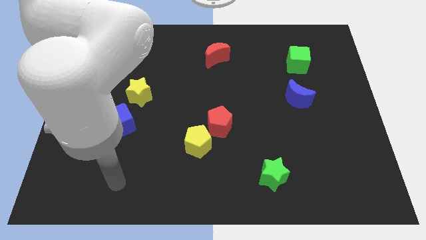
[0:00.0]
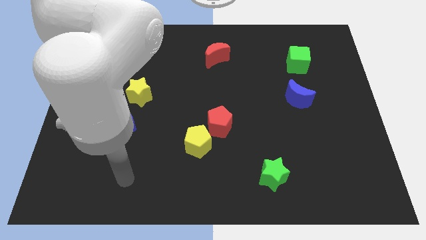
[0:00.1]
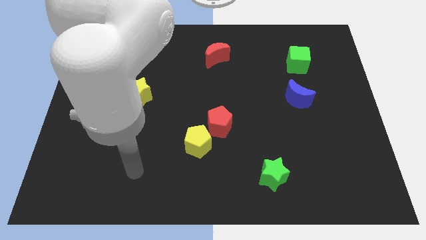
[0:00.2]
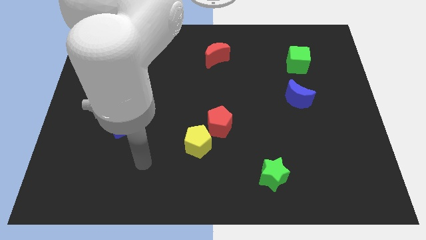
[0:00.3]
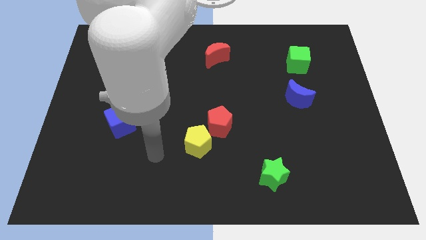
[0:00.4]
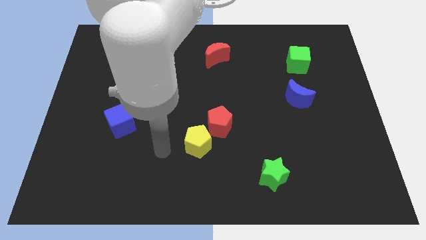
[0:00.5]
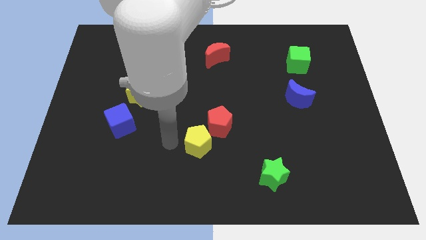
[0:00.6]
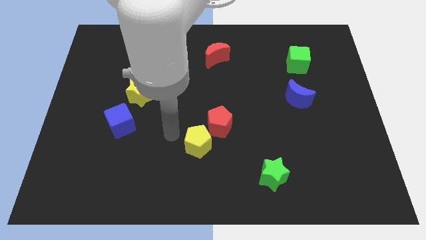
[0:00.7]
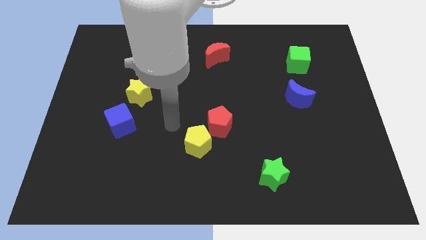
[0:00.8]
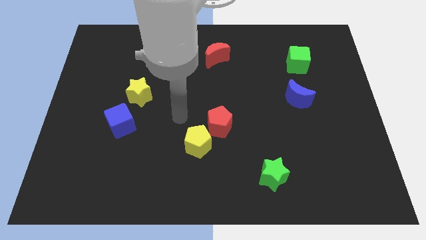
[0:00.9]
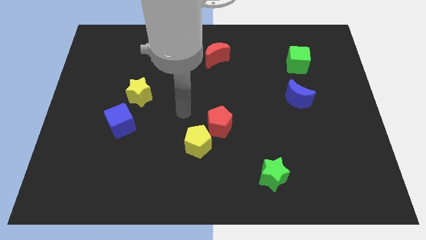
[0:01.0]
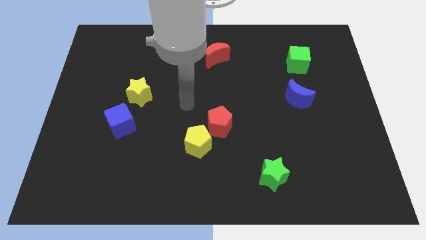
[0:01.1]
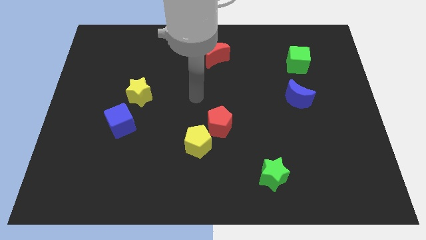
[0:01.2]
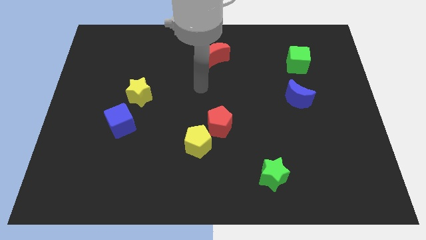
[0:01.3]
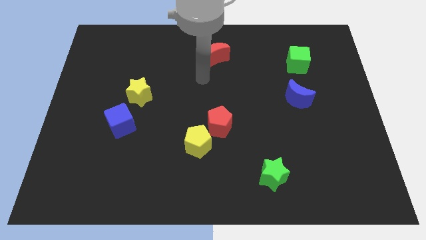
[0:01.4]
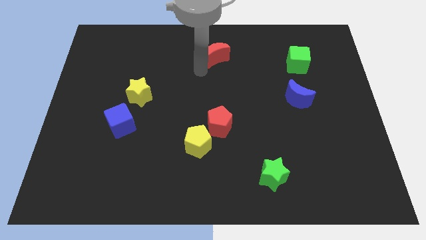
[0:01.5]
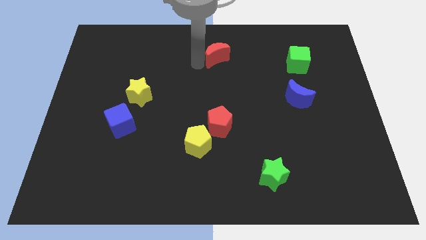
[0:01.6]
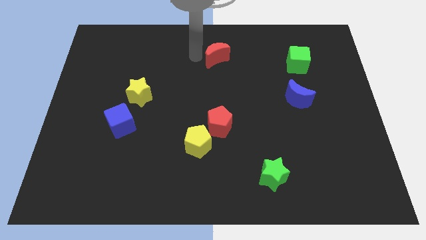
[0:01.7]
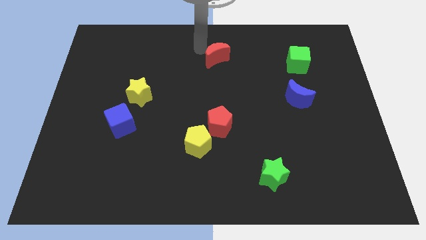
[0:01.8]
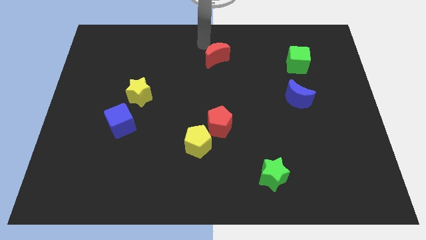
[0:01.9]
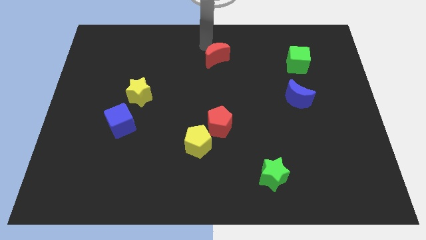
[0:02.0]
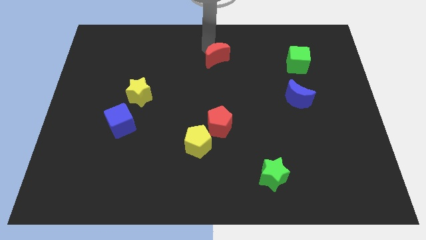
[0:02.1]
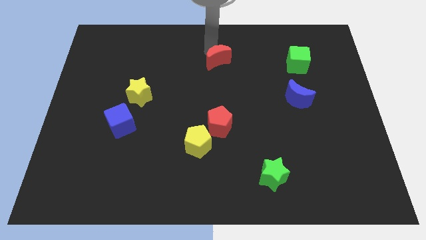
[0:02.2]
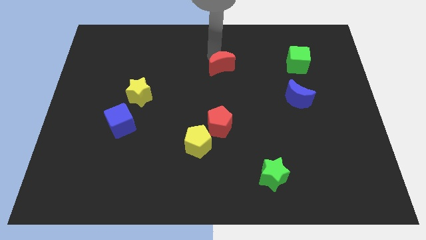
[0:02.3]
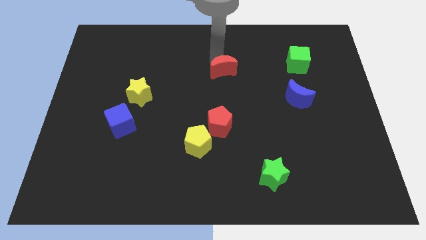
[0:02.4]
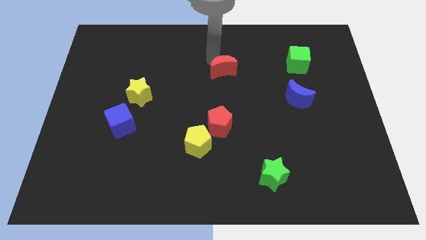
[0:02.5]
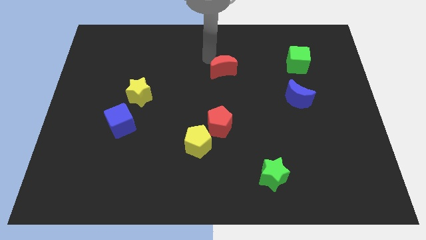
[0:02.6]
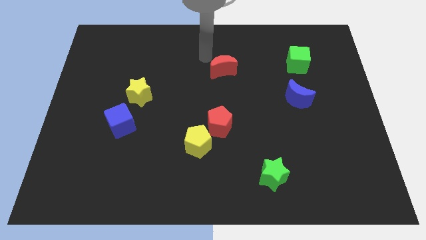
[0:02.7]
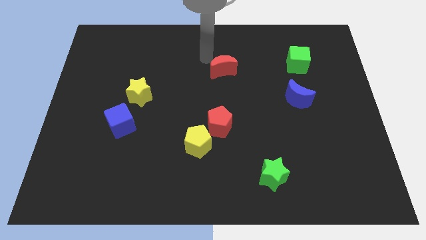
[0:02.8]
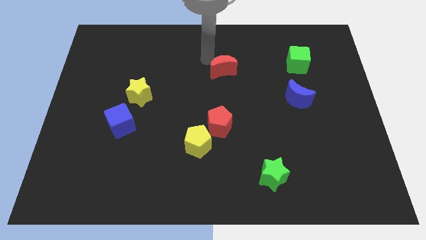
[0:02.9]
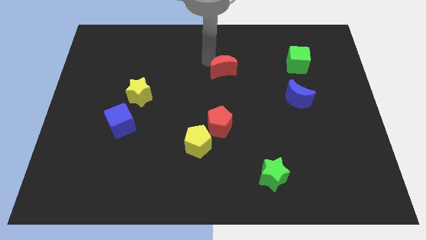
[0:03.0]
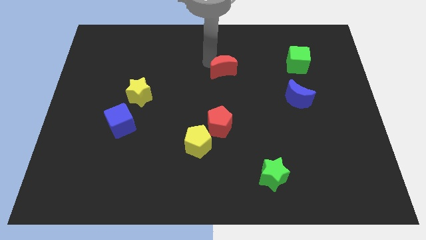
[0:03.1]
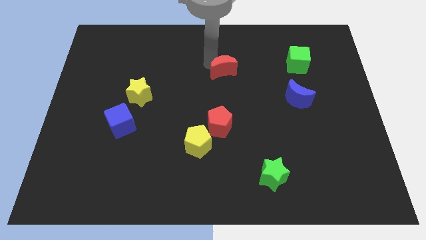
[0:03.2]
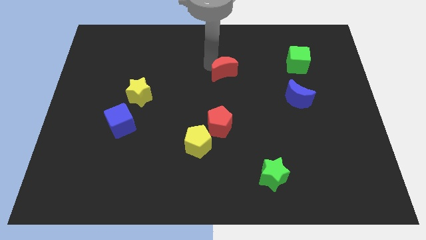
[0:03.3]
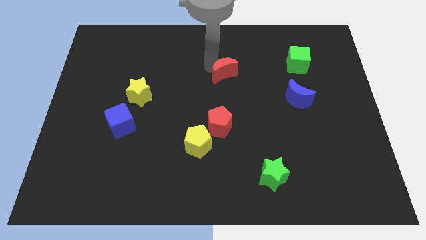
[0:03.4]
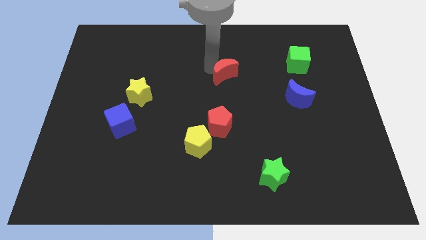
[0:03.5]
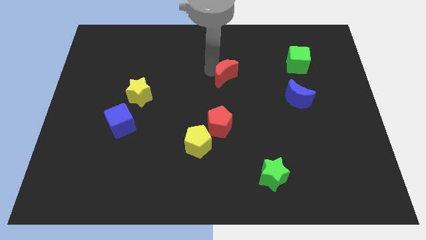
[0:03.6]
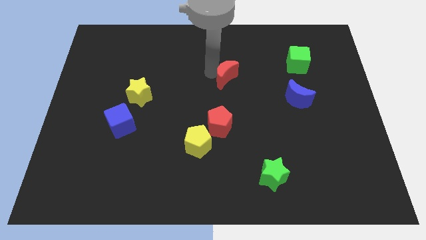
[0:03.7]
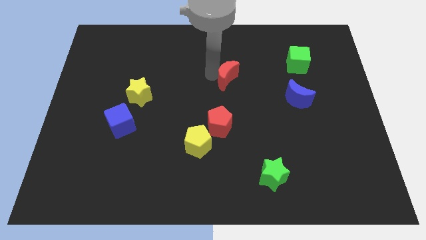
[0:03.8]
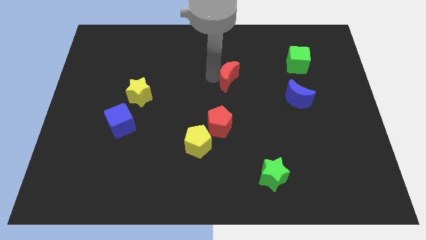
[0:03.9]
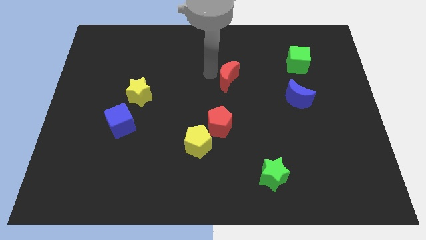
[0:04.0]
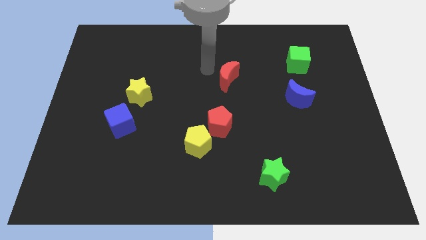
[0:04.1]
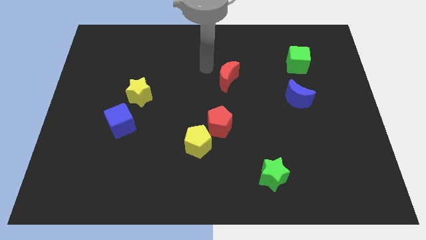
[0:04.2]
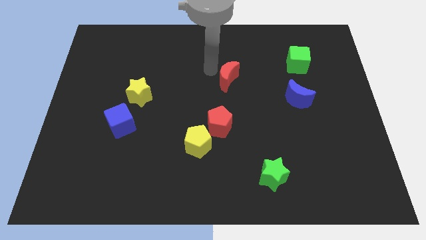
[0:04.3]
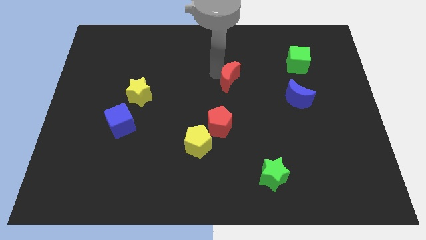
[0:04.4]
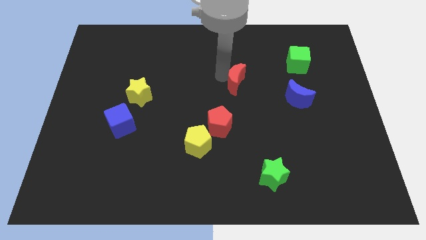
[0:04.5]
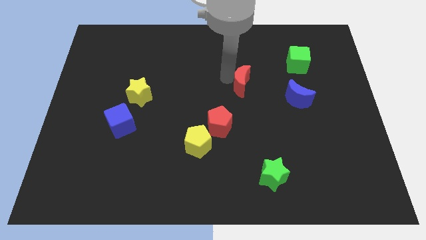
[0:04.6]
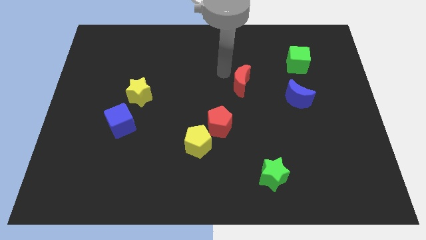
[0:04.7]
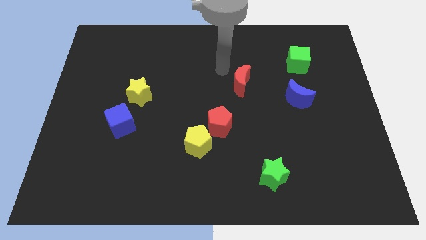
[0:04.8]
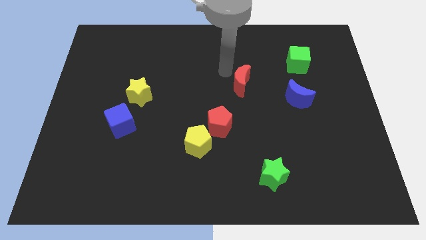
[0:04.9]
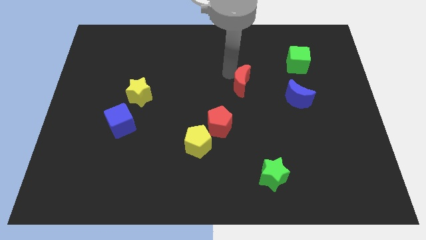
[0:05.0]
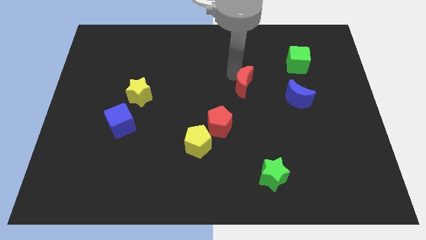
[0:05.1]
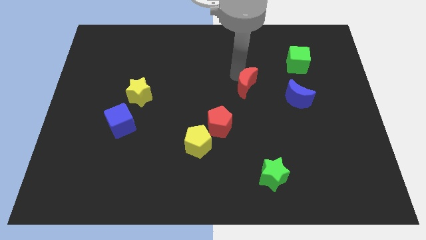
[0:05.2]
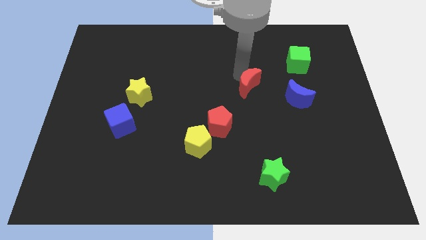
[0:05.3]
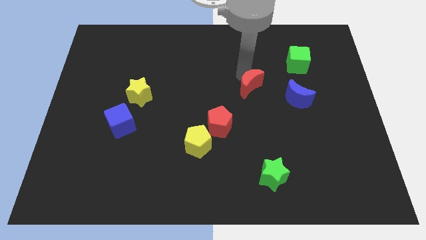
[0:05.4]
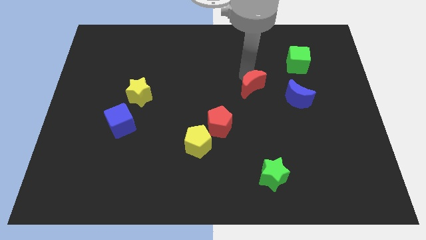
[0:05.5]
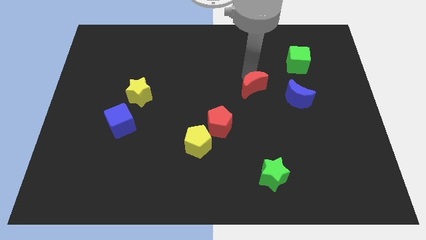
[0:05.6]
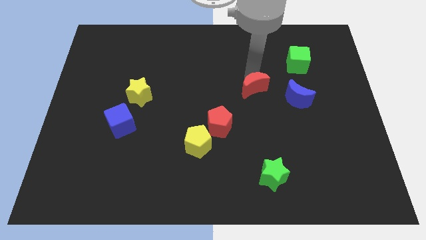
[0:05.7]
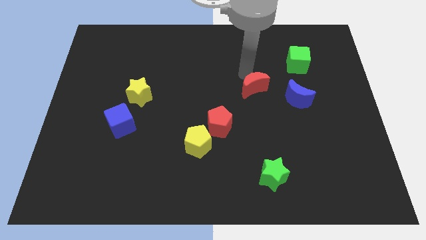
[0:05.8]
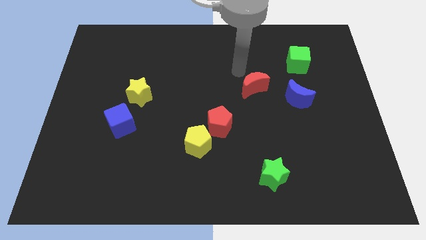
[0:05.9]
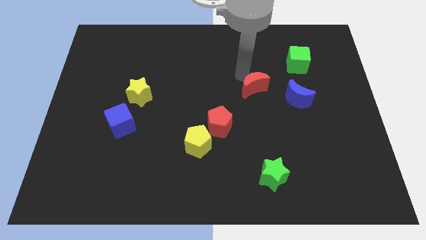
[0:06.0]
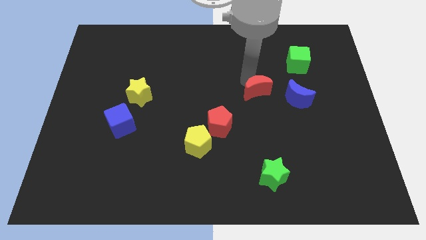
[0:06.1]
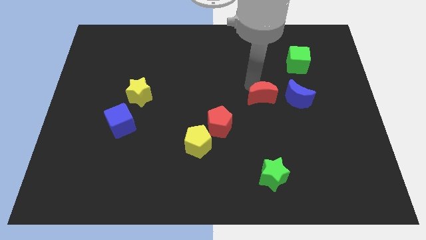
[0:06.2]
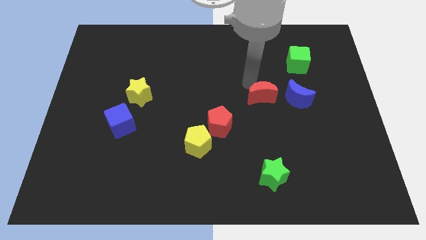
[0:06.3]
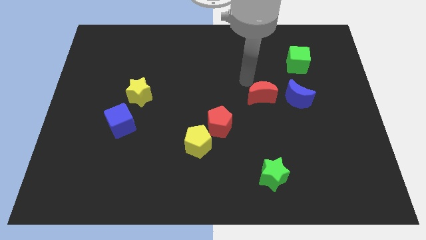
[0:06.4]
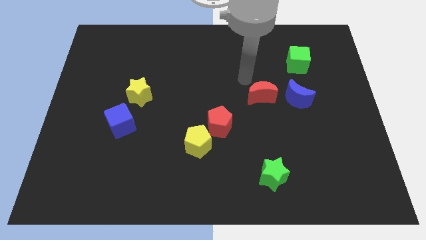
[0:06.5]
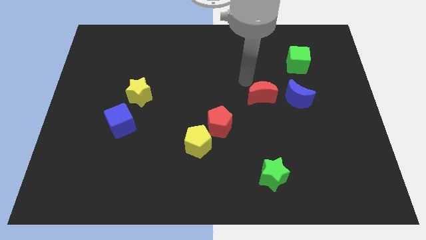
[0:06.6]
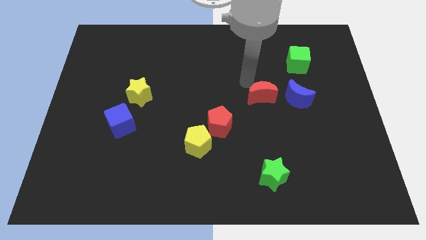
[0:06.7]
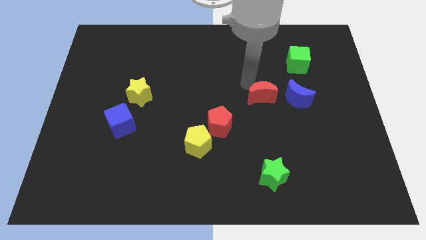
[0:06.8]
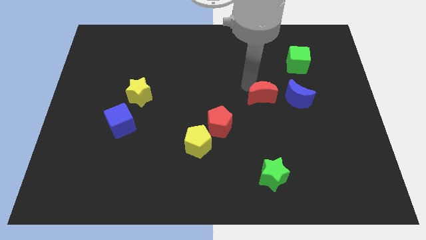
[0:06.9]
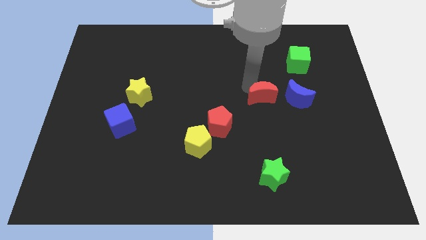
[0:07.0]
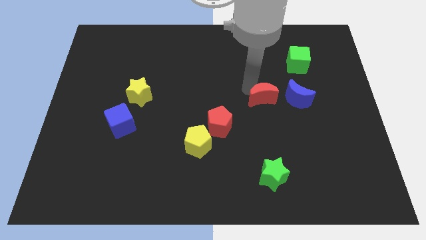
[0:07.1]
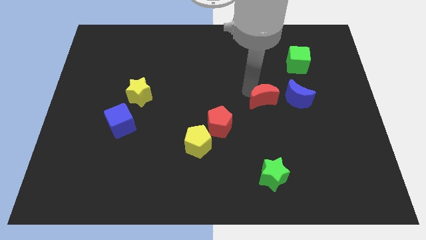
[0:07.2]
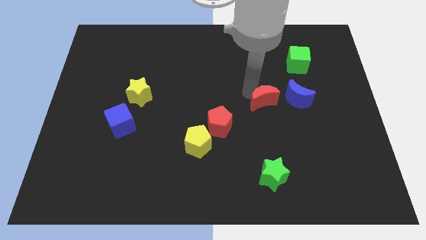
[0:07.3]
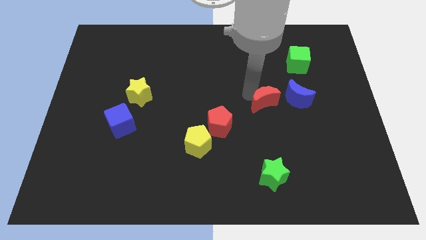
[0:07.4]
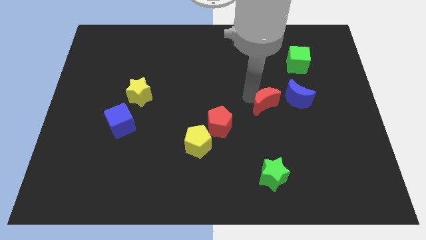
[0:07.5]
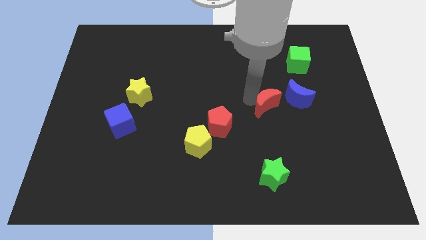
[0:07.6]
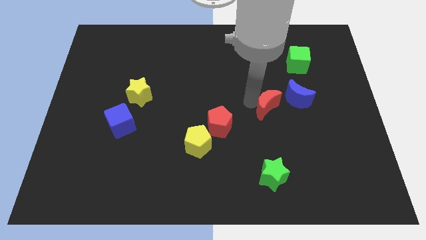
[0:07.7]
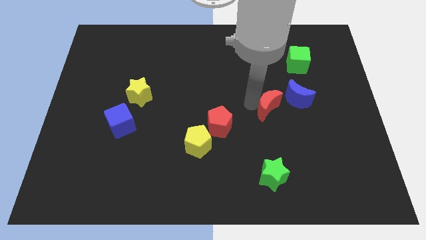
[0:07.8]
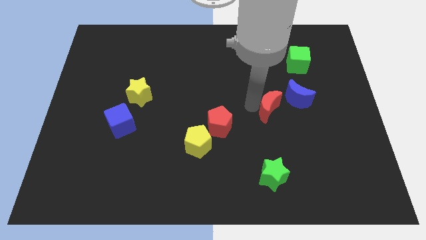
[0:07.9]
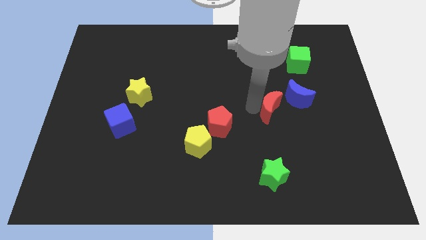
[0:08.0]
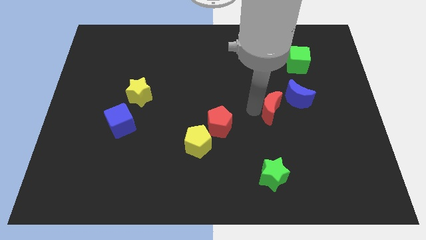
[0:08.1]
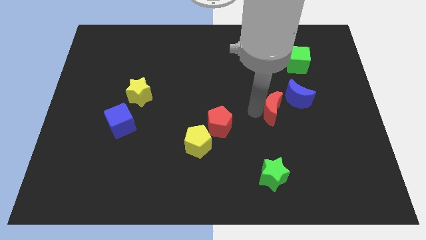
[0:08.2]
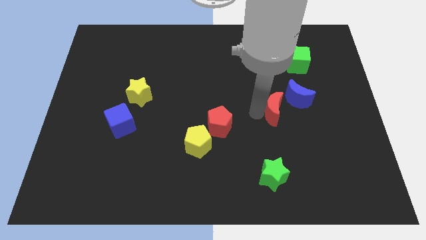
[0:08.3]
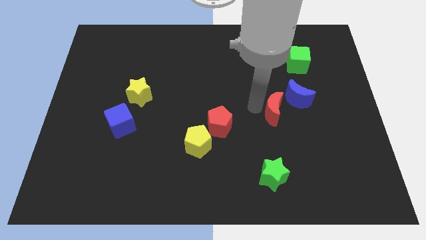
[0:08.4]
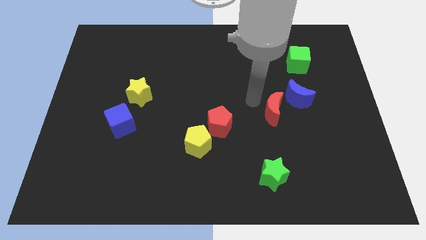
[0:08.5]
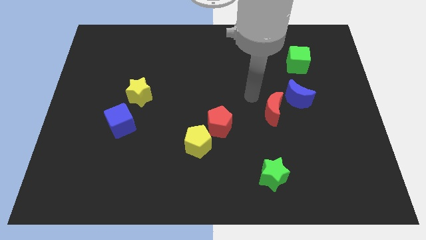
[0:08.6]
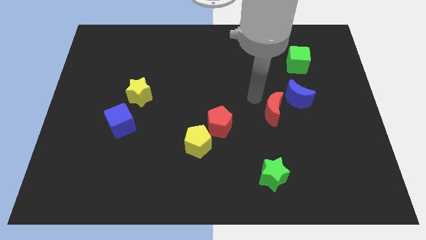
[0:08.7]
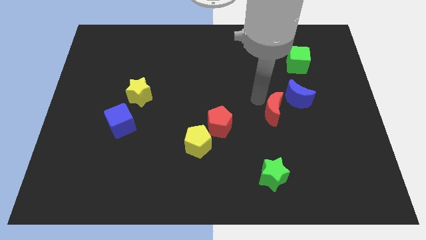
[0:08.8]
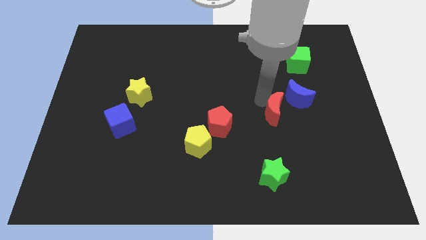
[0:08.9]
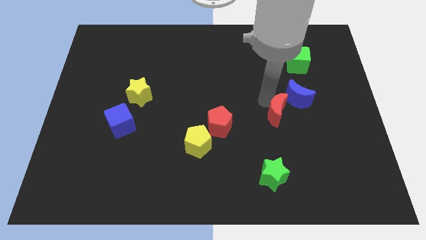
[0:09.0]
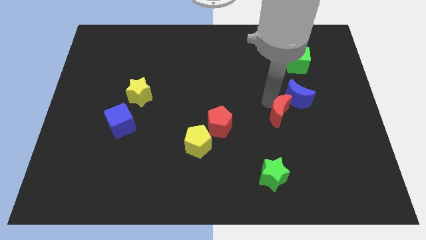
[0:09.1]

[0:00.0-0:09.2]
push the red moon below the blue moon
